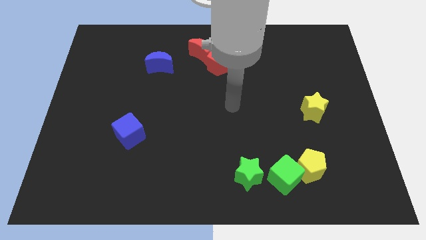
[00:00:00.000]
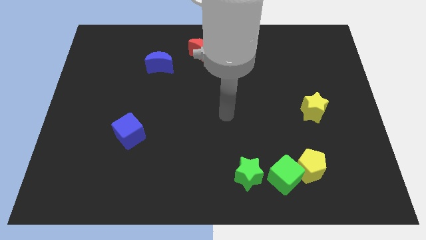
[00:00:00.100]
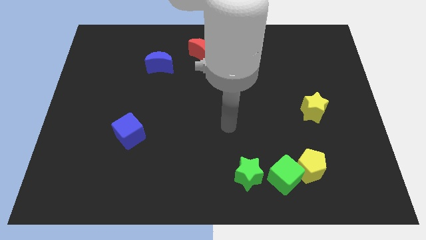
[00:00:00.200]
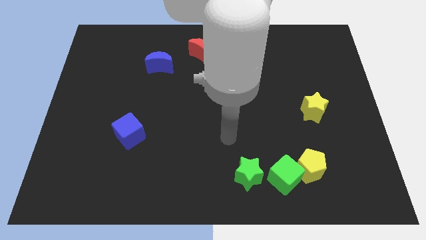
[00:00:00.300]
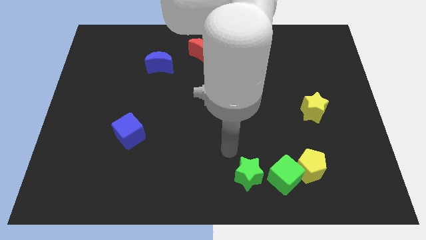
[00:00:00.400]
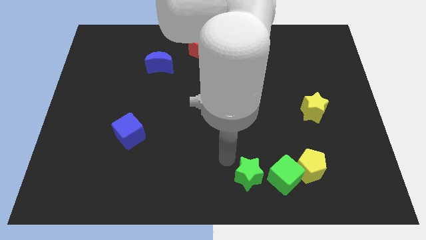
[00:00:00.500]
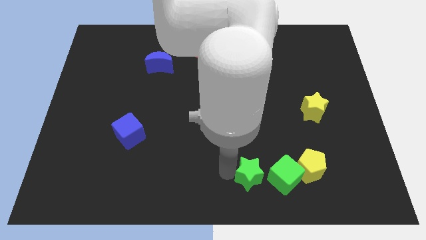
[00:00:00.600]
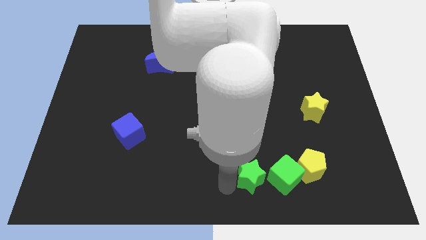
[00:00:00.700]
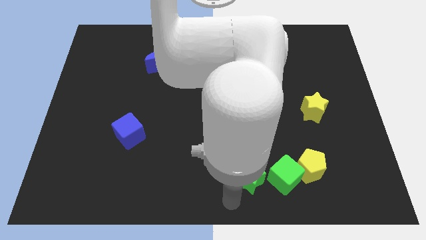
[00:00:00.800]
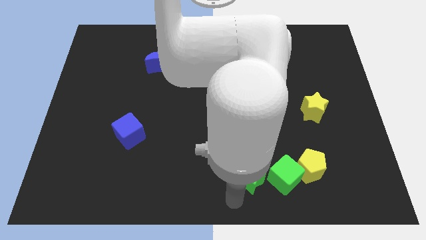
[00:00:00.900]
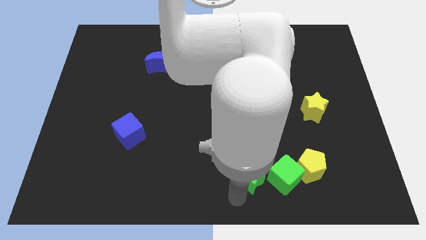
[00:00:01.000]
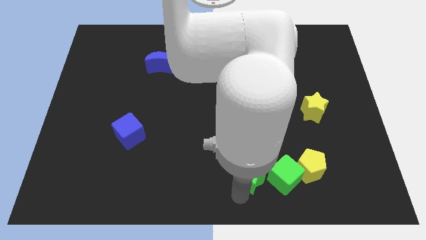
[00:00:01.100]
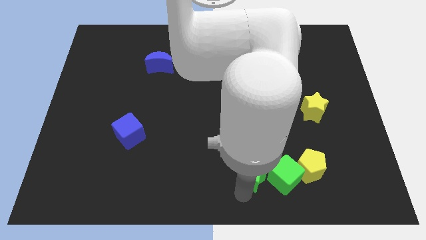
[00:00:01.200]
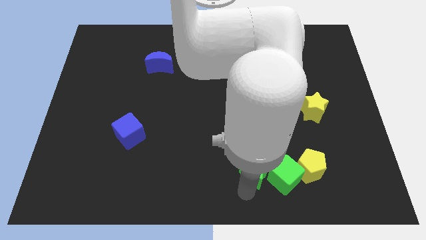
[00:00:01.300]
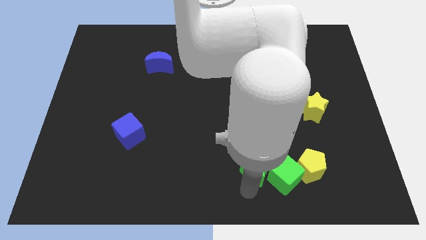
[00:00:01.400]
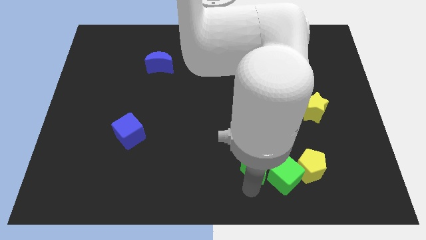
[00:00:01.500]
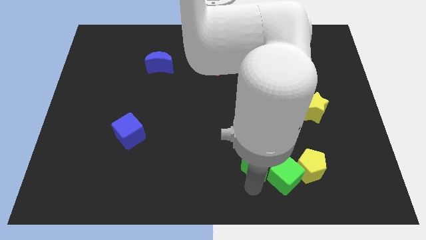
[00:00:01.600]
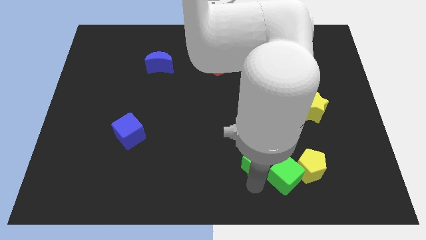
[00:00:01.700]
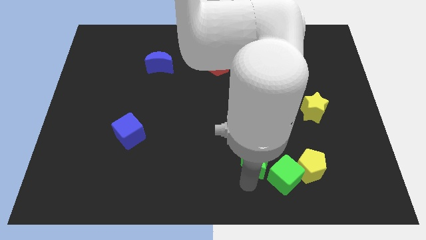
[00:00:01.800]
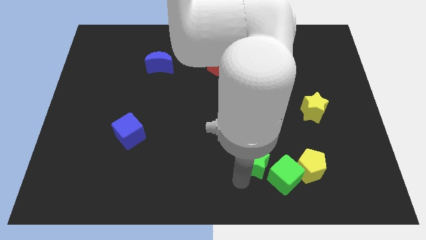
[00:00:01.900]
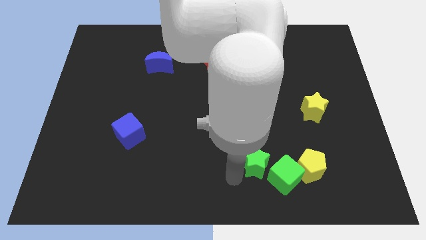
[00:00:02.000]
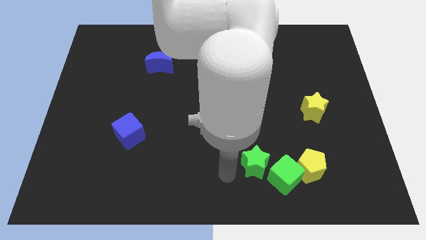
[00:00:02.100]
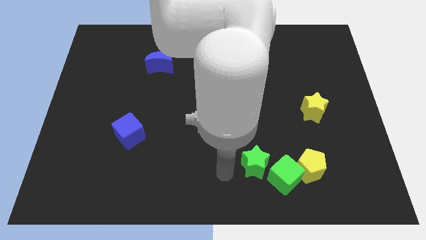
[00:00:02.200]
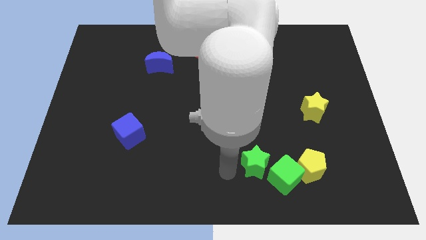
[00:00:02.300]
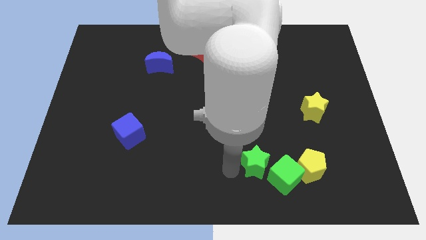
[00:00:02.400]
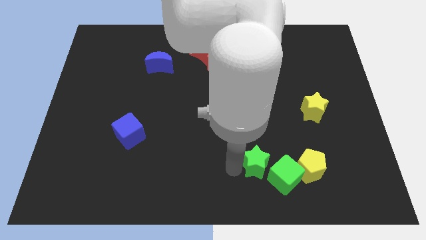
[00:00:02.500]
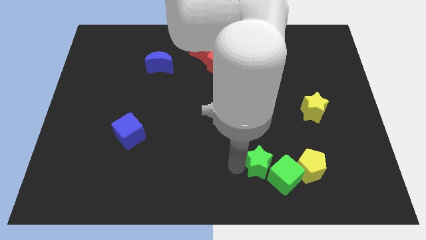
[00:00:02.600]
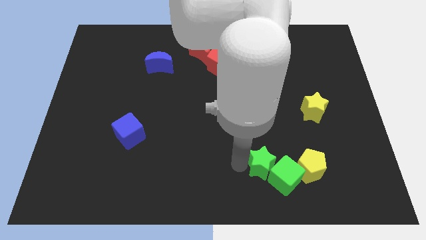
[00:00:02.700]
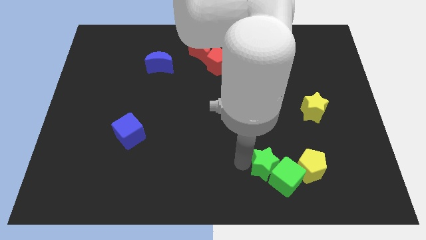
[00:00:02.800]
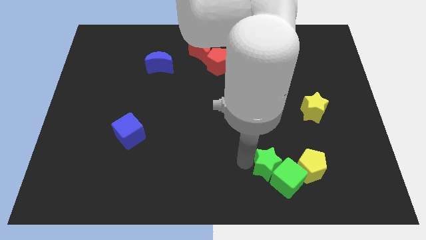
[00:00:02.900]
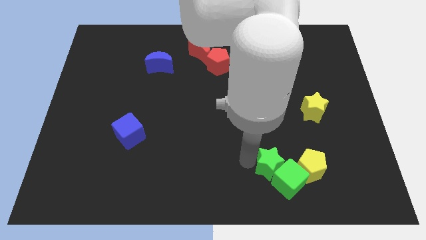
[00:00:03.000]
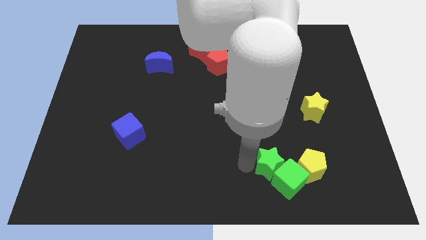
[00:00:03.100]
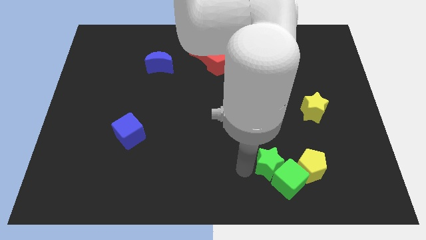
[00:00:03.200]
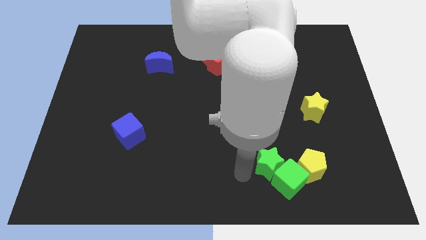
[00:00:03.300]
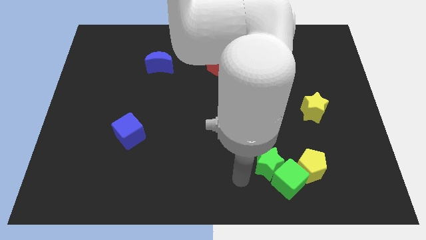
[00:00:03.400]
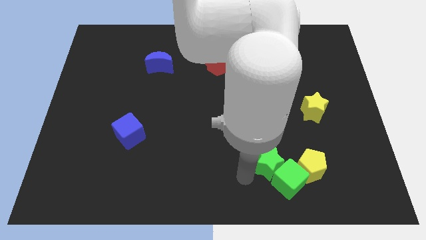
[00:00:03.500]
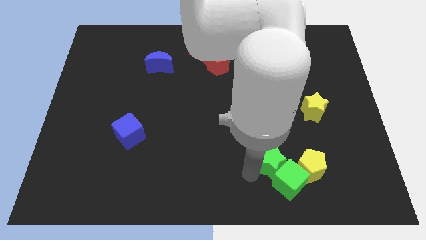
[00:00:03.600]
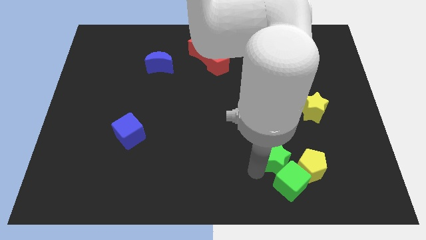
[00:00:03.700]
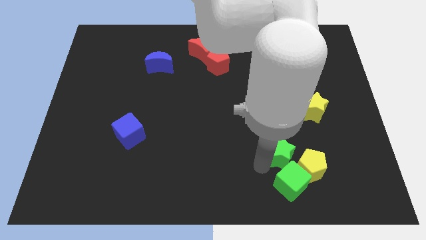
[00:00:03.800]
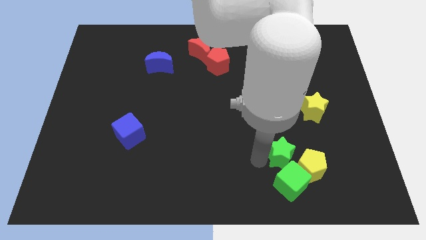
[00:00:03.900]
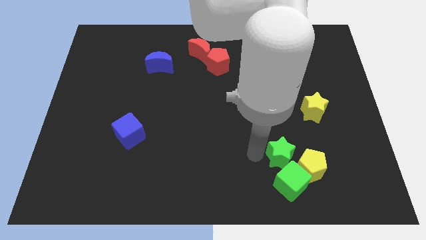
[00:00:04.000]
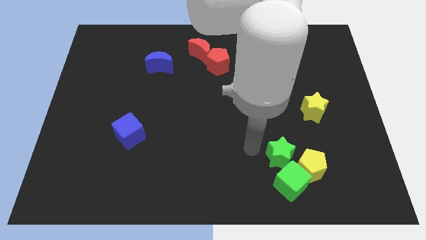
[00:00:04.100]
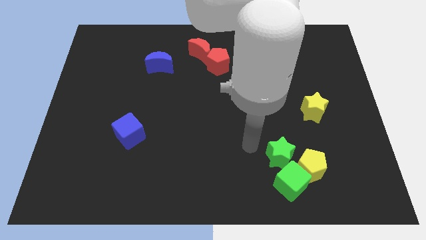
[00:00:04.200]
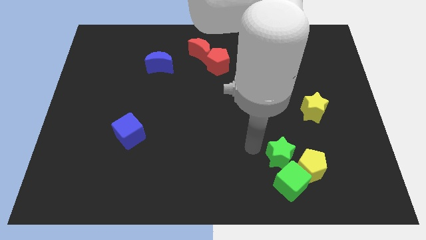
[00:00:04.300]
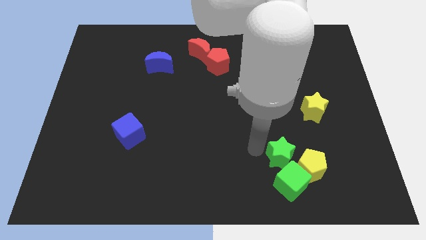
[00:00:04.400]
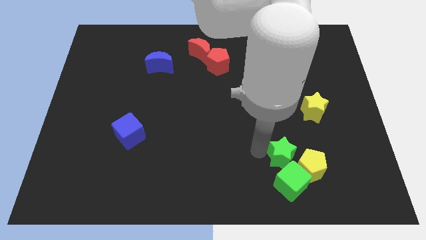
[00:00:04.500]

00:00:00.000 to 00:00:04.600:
put the green star next to the yellow pentagon

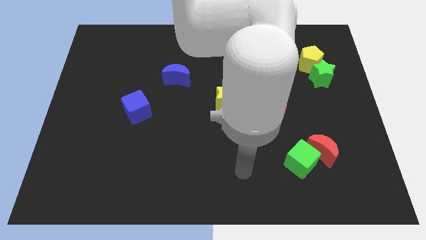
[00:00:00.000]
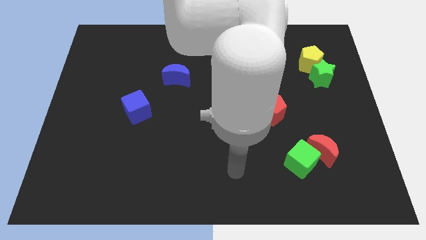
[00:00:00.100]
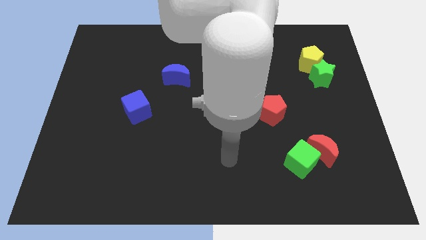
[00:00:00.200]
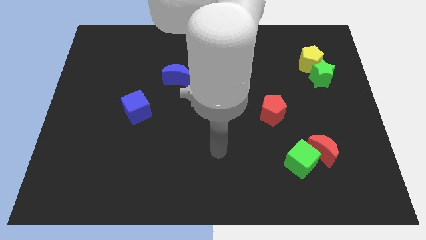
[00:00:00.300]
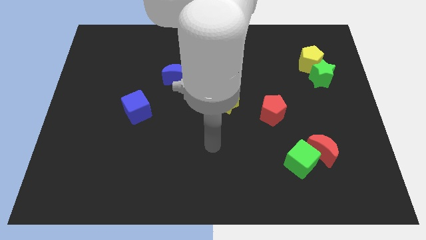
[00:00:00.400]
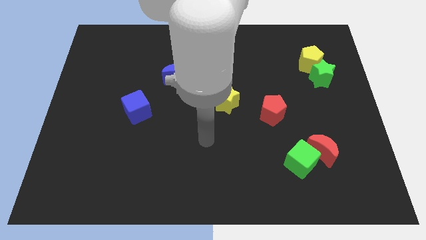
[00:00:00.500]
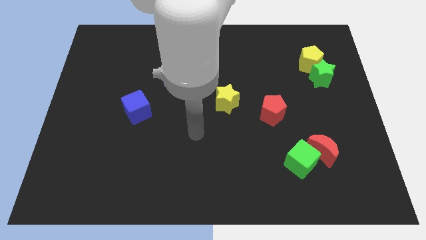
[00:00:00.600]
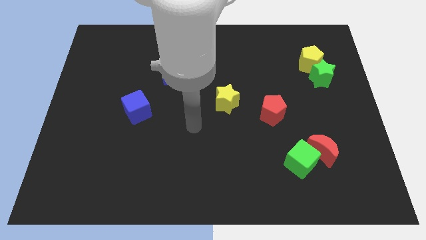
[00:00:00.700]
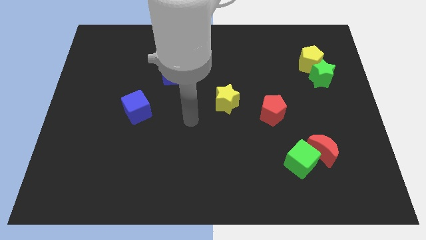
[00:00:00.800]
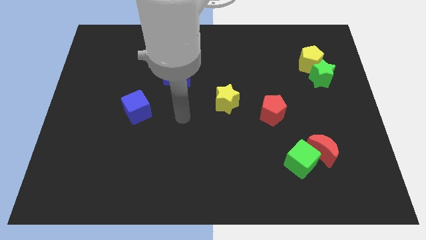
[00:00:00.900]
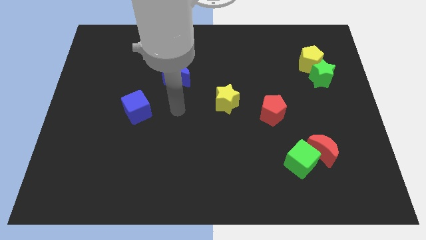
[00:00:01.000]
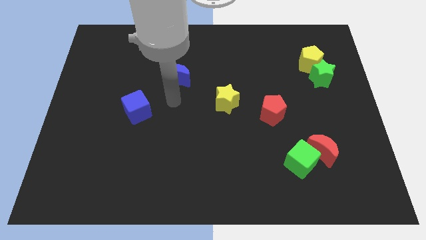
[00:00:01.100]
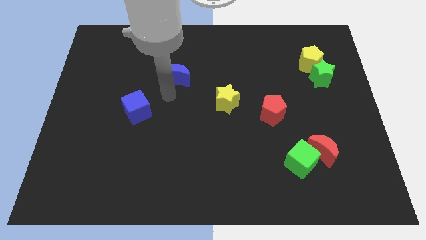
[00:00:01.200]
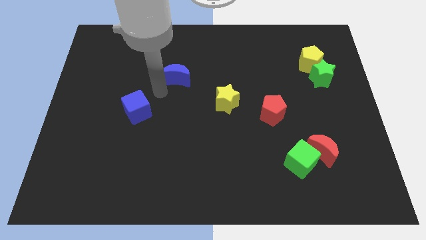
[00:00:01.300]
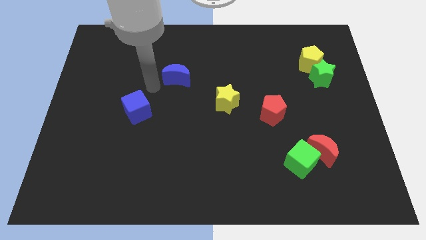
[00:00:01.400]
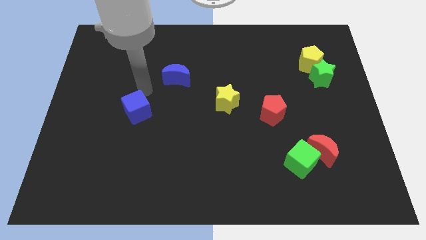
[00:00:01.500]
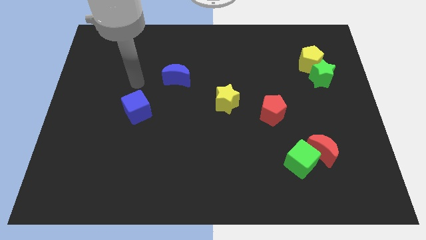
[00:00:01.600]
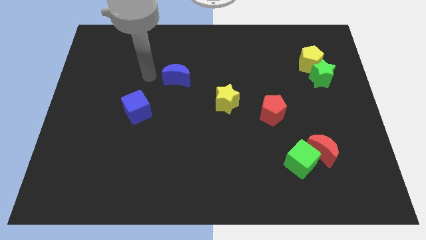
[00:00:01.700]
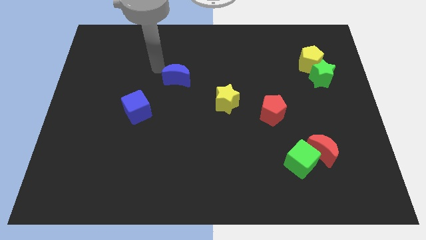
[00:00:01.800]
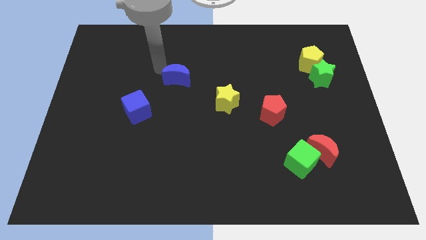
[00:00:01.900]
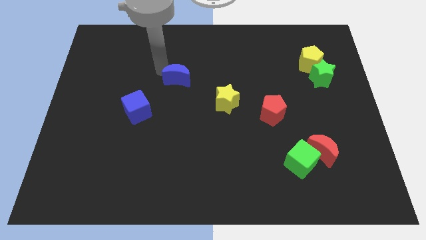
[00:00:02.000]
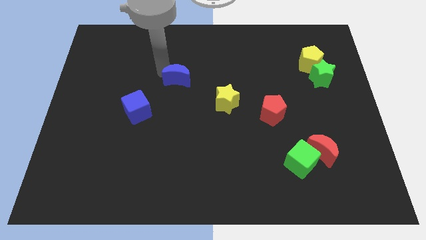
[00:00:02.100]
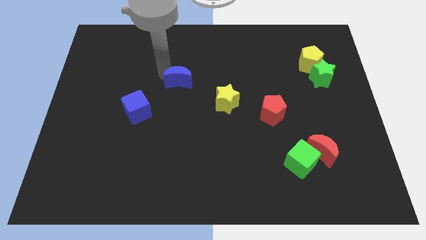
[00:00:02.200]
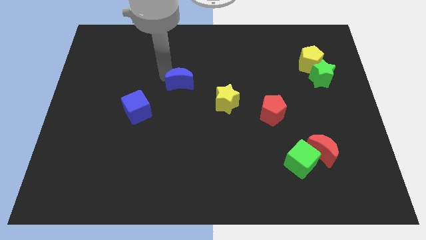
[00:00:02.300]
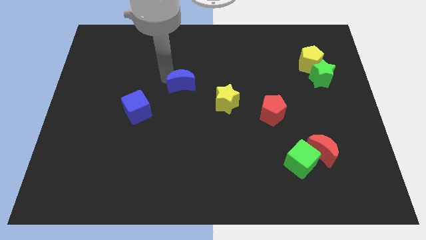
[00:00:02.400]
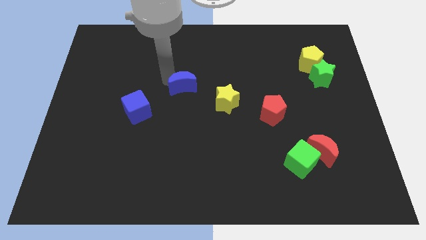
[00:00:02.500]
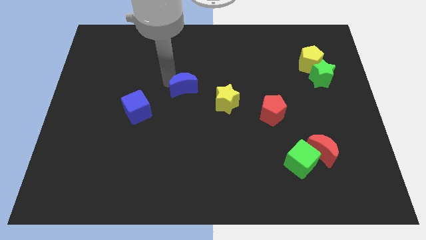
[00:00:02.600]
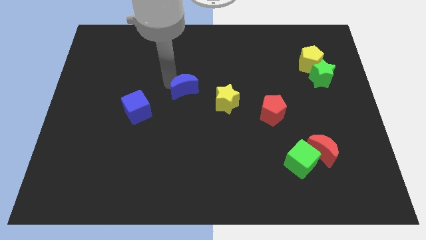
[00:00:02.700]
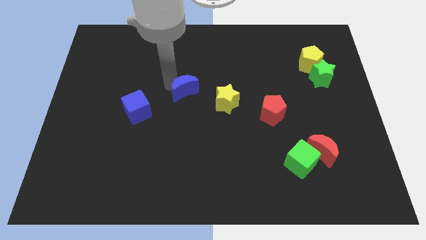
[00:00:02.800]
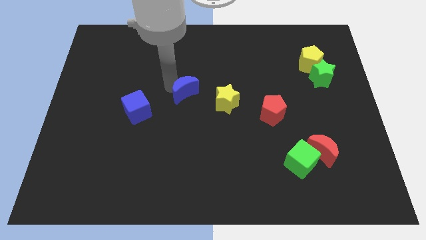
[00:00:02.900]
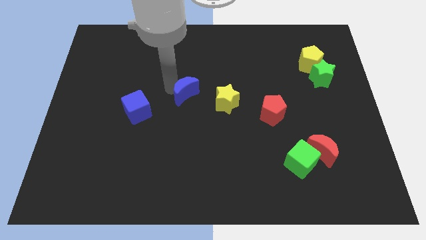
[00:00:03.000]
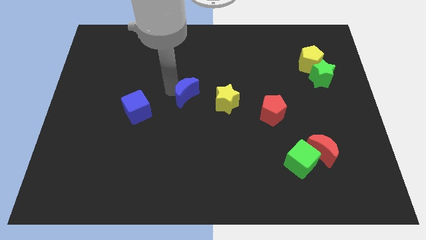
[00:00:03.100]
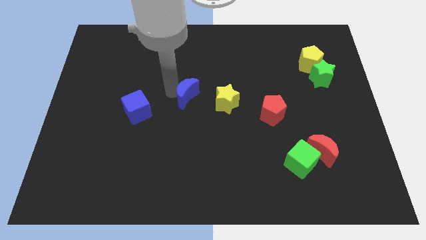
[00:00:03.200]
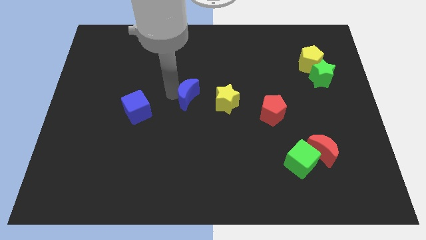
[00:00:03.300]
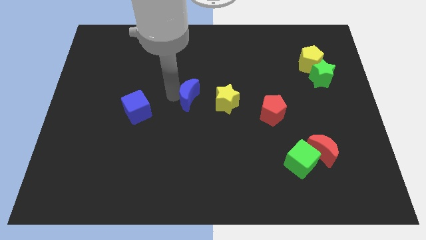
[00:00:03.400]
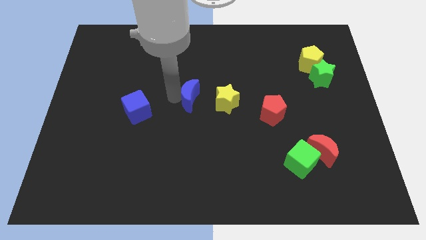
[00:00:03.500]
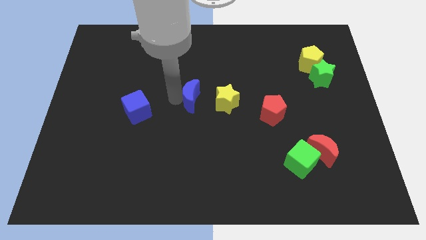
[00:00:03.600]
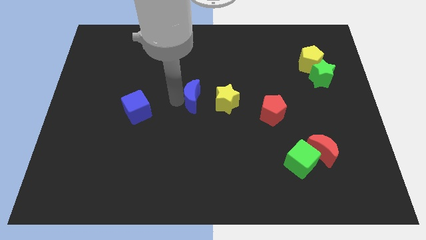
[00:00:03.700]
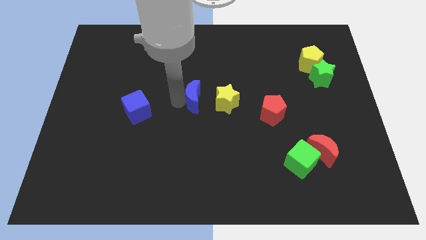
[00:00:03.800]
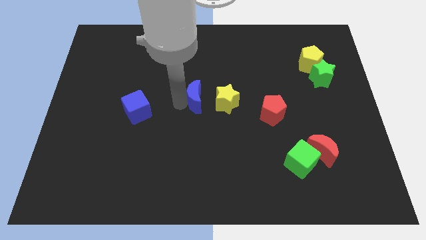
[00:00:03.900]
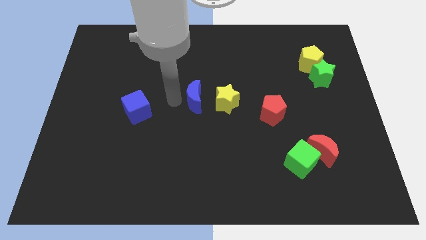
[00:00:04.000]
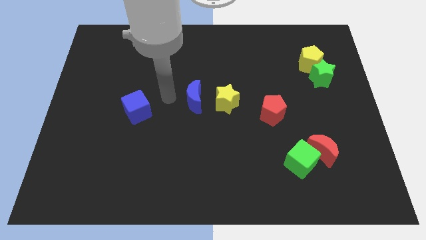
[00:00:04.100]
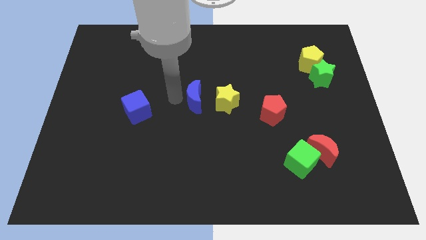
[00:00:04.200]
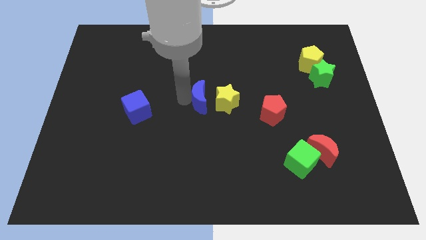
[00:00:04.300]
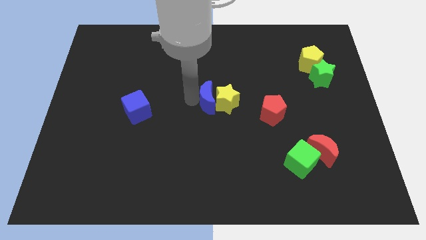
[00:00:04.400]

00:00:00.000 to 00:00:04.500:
push the blue moon towards the yellow star
